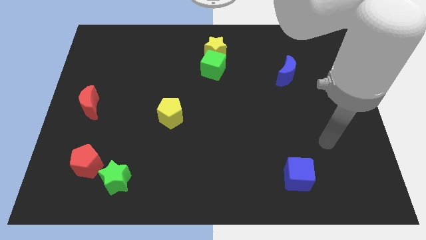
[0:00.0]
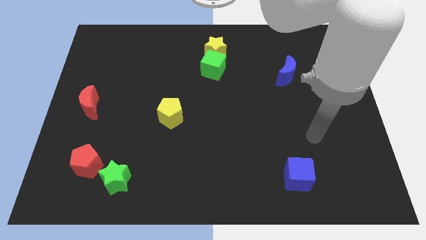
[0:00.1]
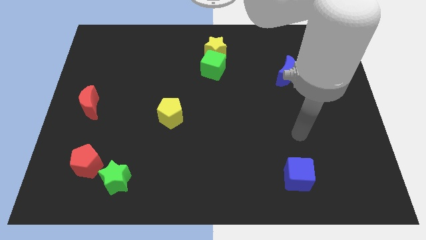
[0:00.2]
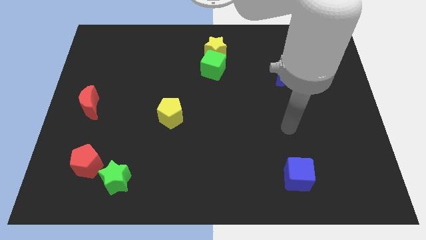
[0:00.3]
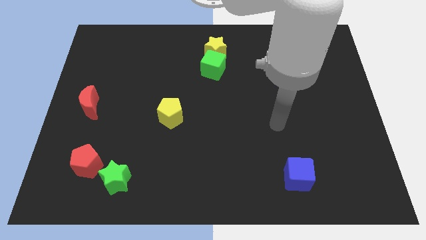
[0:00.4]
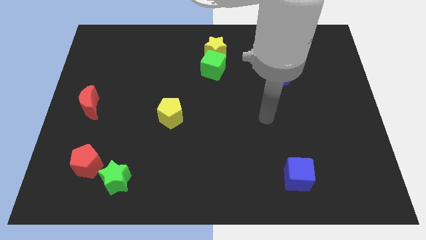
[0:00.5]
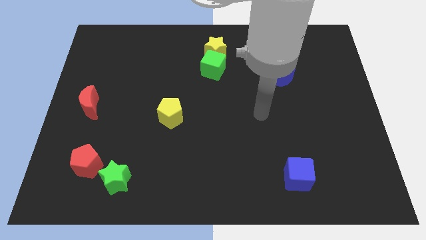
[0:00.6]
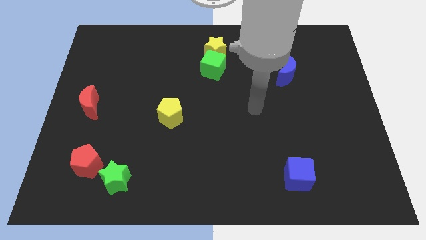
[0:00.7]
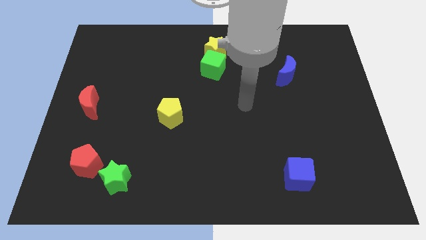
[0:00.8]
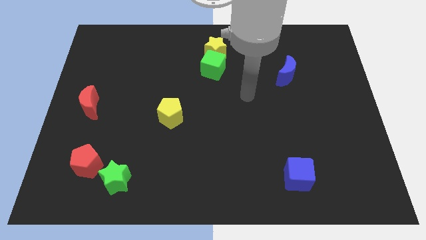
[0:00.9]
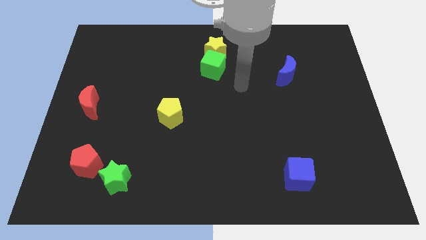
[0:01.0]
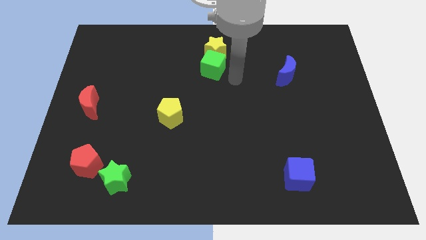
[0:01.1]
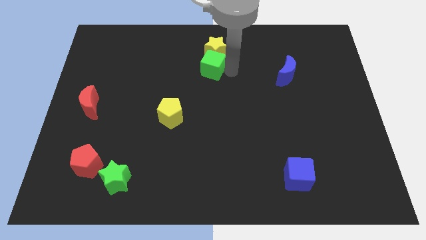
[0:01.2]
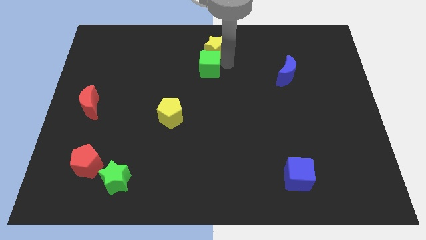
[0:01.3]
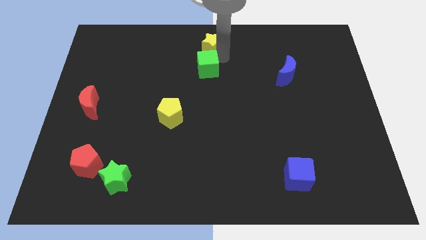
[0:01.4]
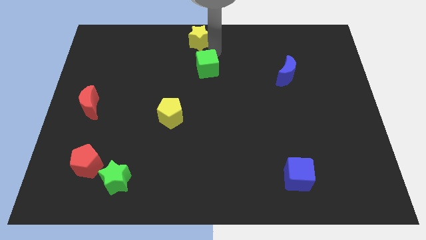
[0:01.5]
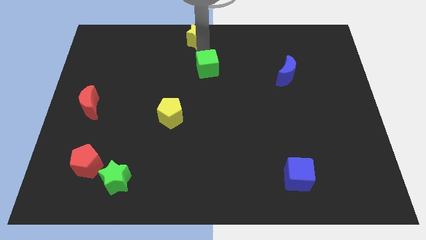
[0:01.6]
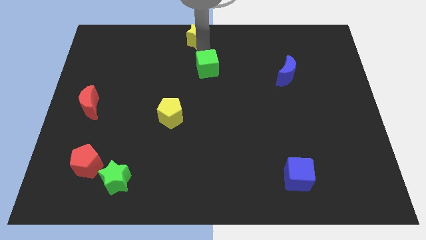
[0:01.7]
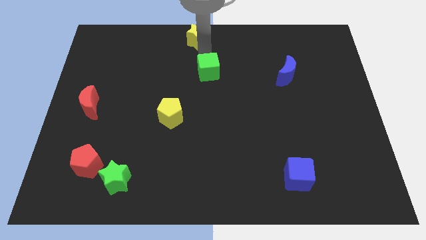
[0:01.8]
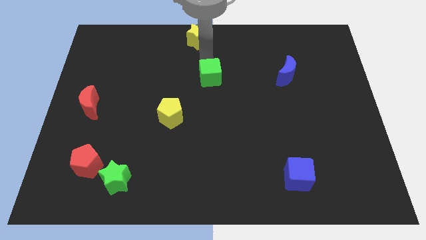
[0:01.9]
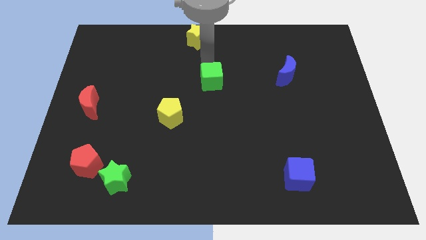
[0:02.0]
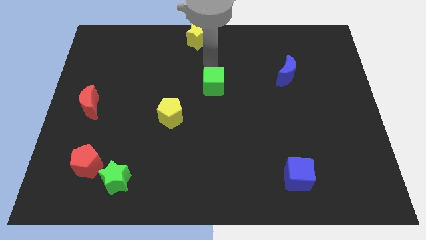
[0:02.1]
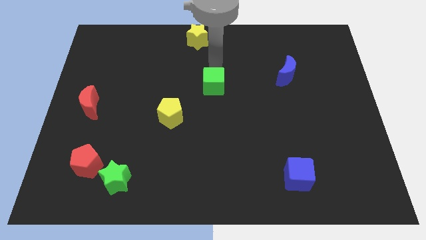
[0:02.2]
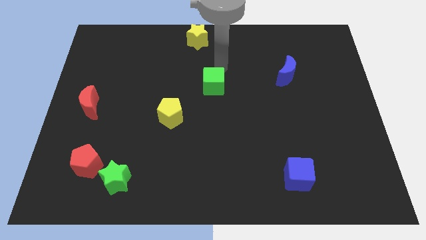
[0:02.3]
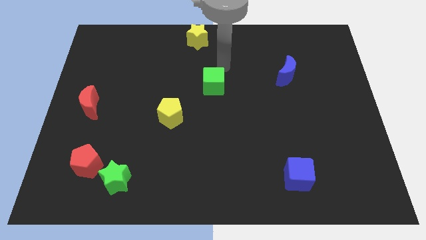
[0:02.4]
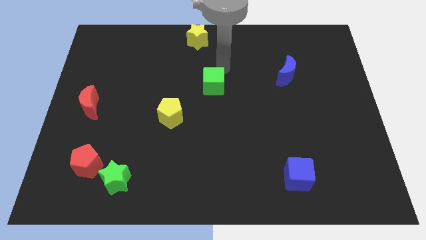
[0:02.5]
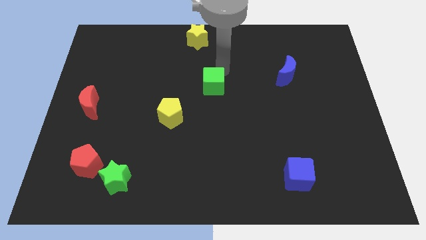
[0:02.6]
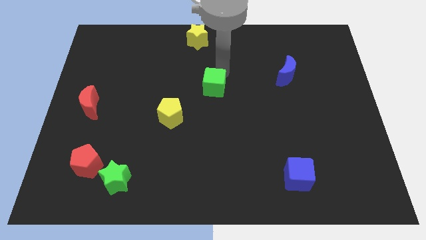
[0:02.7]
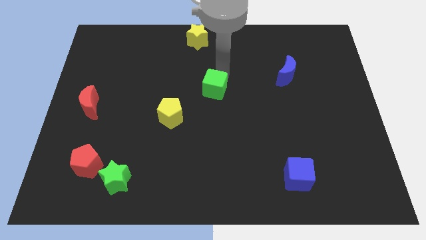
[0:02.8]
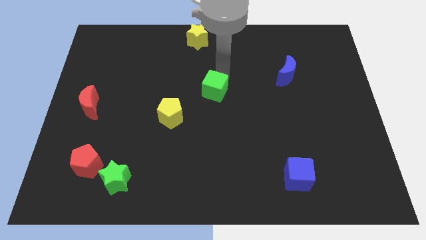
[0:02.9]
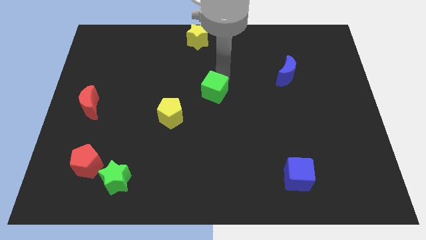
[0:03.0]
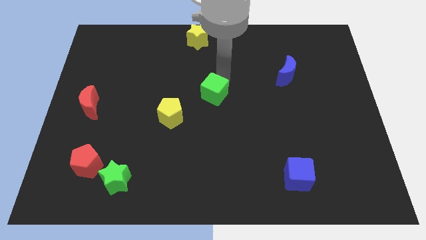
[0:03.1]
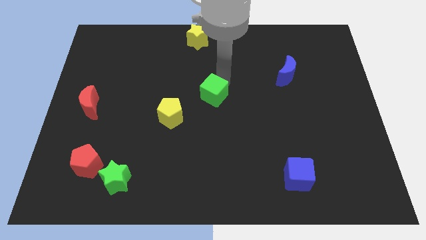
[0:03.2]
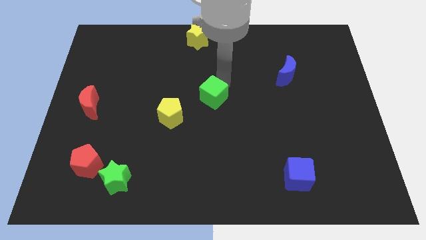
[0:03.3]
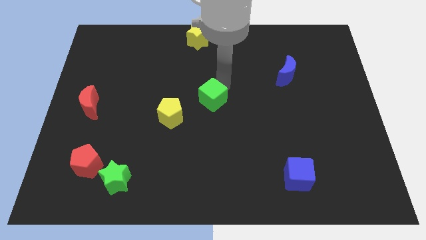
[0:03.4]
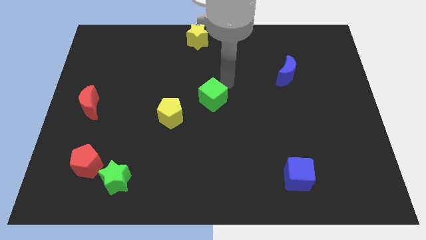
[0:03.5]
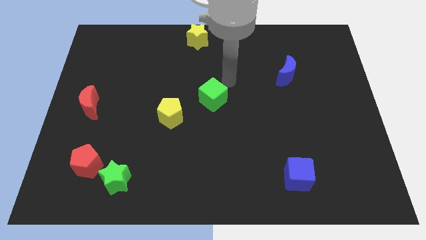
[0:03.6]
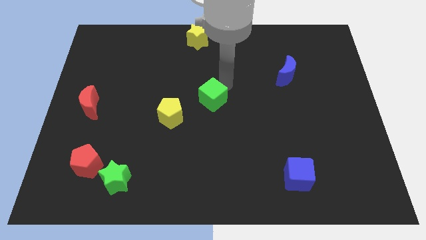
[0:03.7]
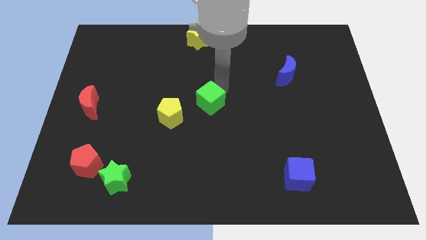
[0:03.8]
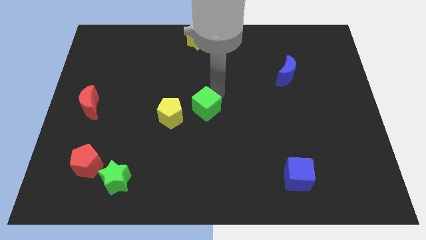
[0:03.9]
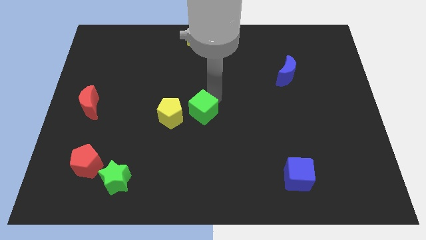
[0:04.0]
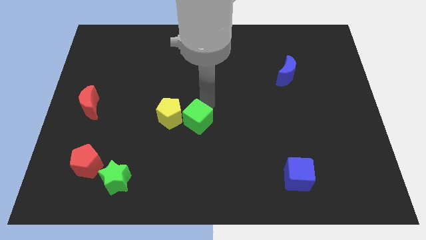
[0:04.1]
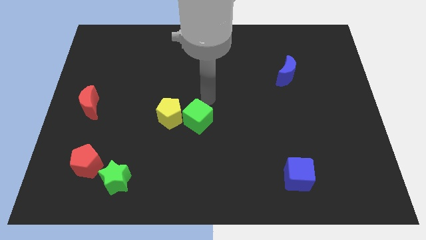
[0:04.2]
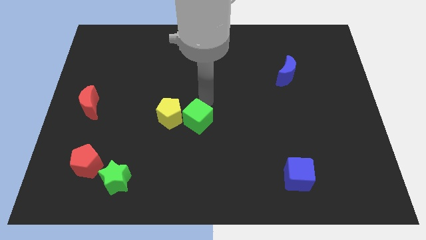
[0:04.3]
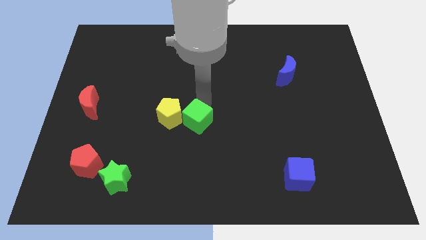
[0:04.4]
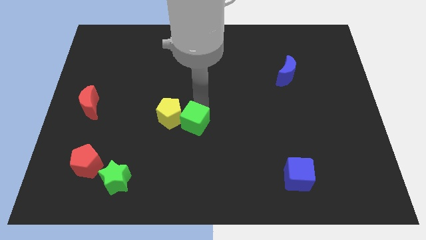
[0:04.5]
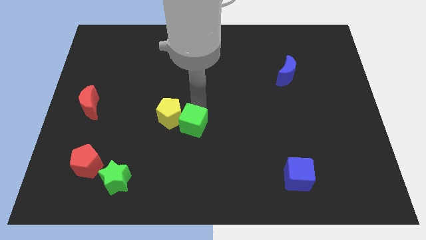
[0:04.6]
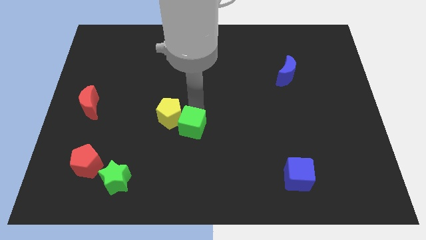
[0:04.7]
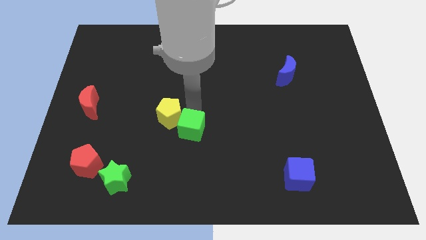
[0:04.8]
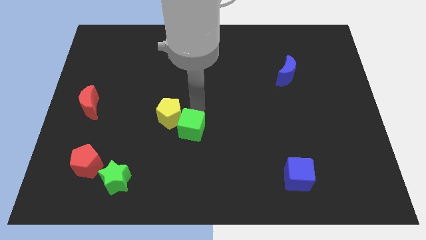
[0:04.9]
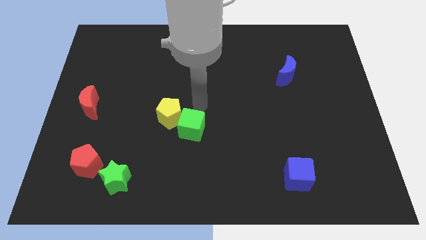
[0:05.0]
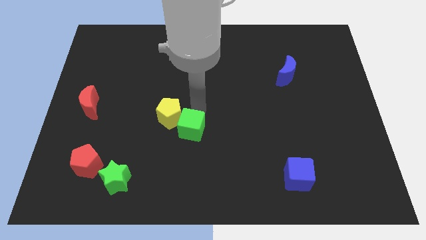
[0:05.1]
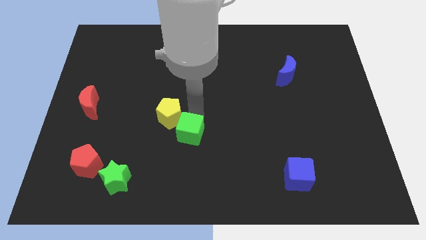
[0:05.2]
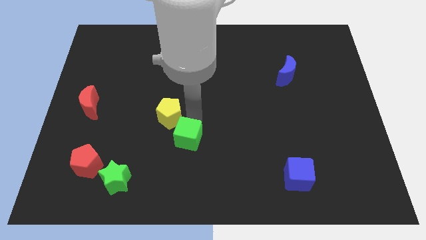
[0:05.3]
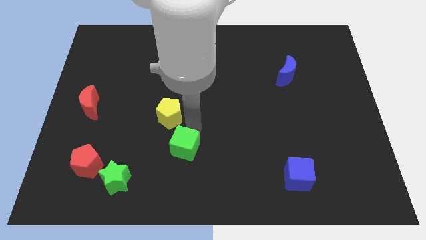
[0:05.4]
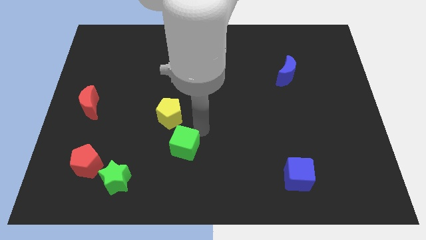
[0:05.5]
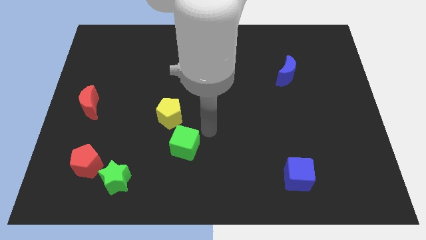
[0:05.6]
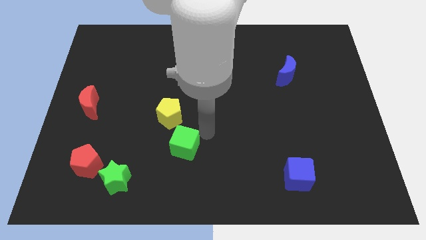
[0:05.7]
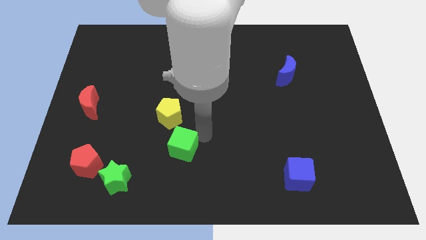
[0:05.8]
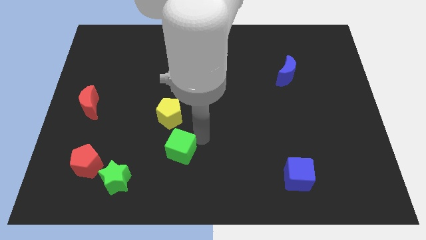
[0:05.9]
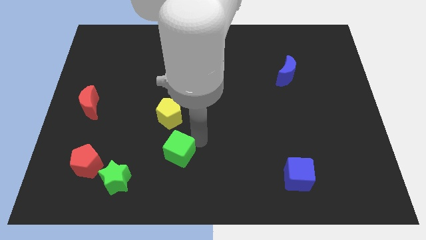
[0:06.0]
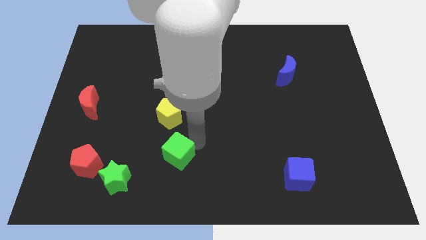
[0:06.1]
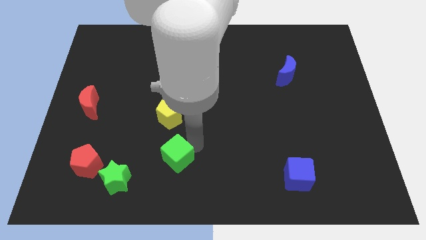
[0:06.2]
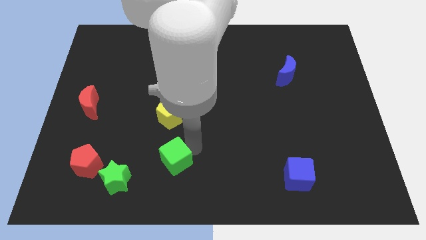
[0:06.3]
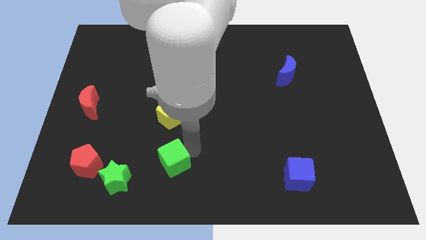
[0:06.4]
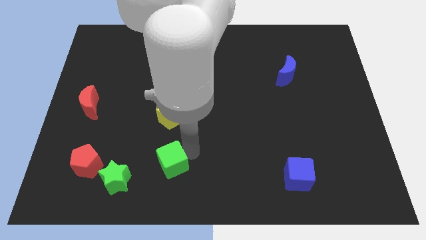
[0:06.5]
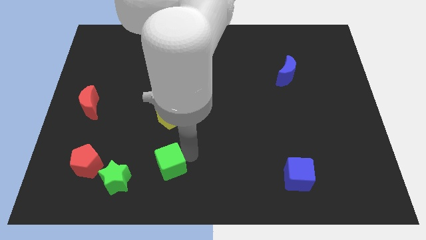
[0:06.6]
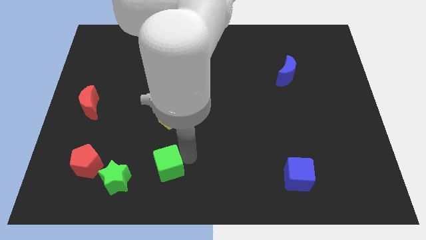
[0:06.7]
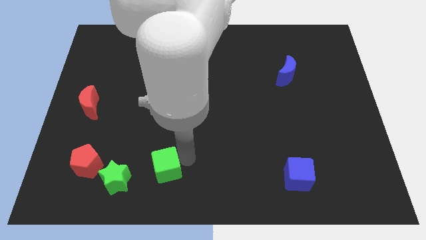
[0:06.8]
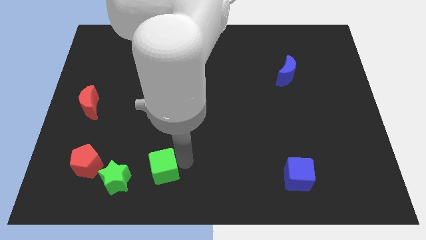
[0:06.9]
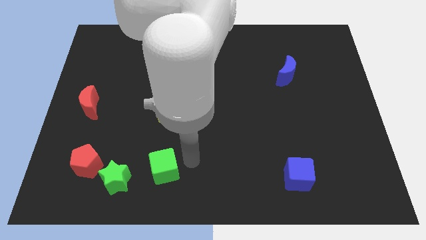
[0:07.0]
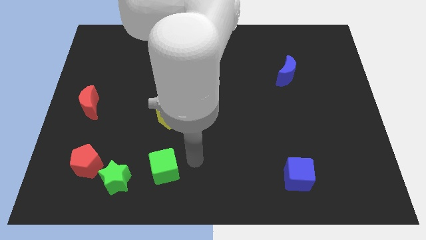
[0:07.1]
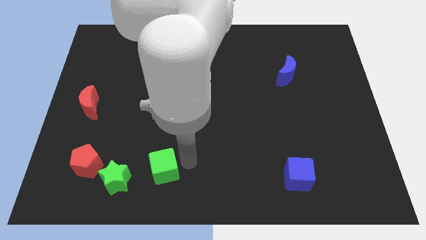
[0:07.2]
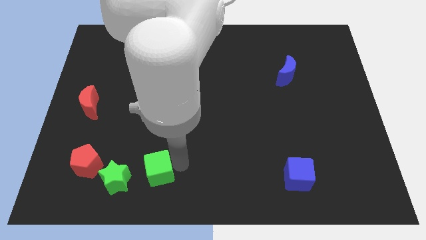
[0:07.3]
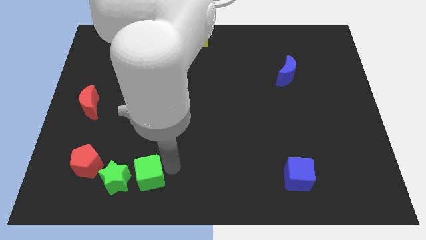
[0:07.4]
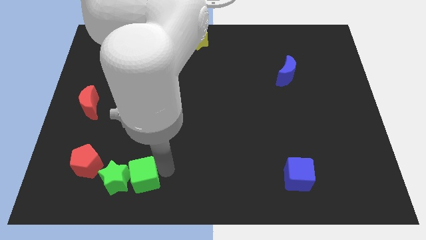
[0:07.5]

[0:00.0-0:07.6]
put the green cube towards the green star
